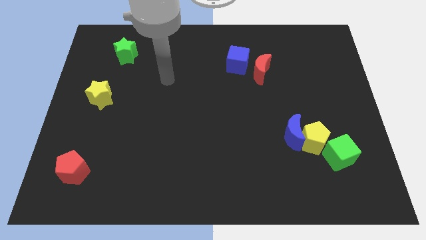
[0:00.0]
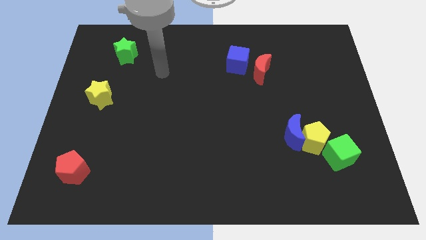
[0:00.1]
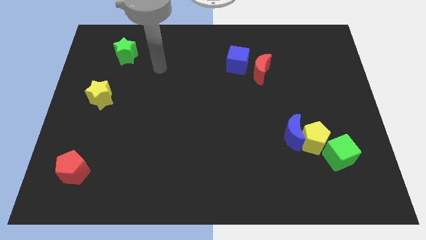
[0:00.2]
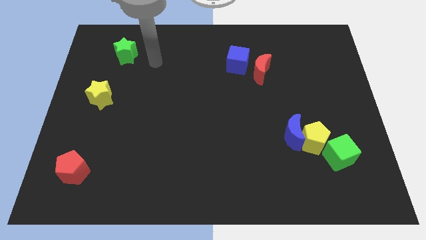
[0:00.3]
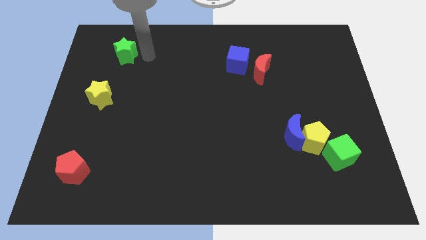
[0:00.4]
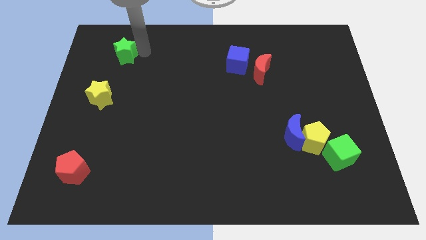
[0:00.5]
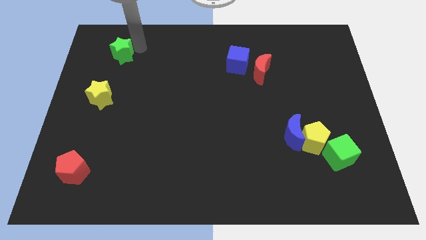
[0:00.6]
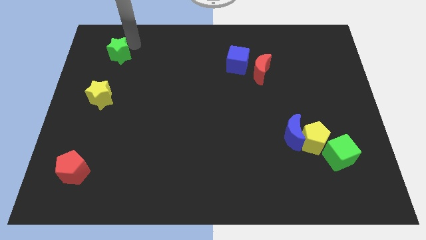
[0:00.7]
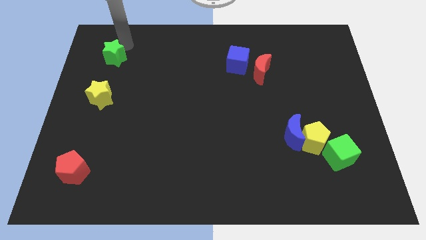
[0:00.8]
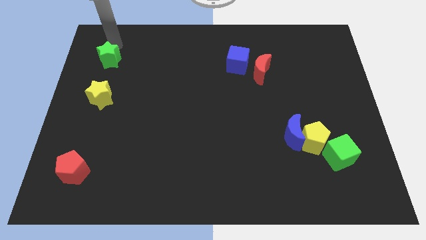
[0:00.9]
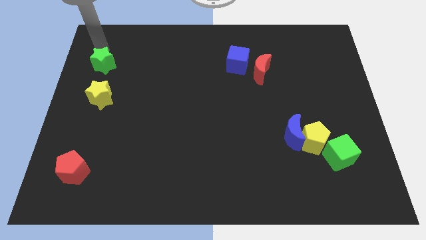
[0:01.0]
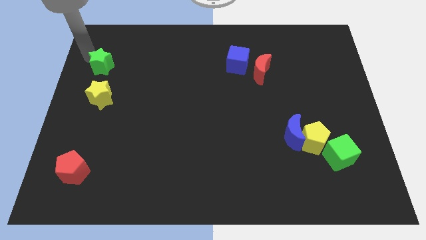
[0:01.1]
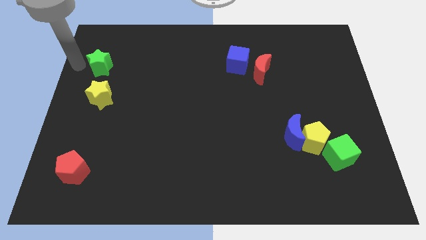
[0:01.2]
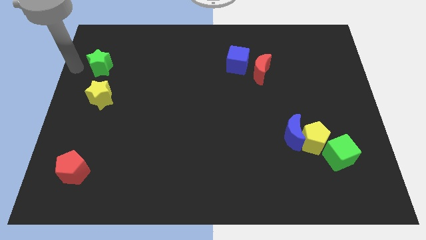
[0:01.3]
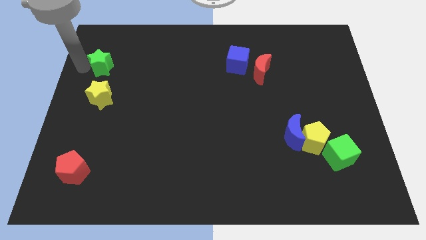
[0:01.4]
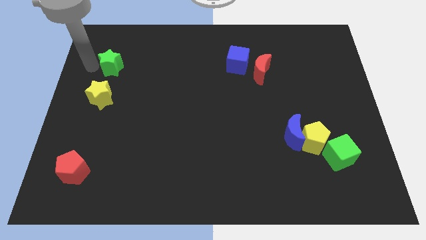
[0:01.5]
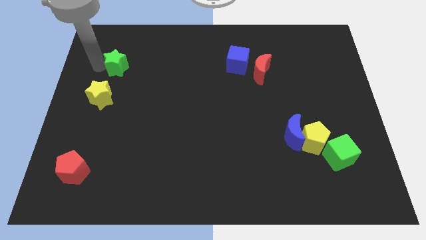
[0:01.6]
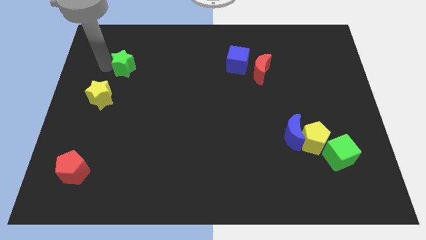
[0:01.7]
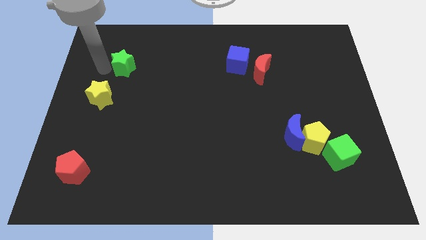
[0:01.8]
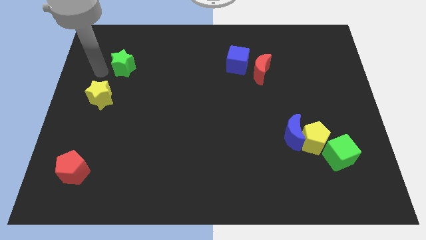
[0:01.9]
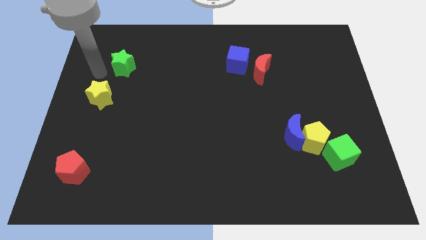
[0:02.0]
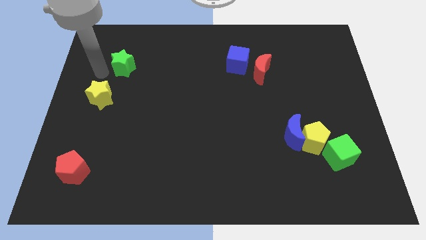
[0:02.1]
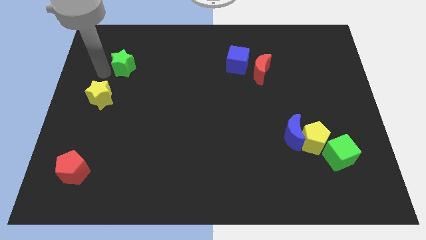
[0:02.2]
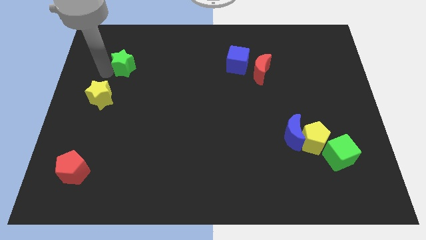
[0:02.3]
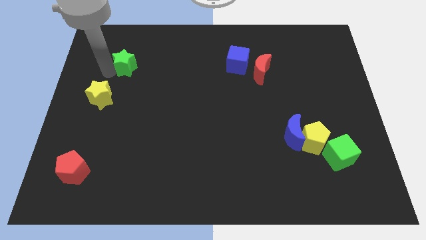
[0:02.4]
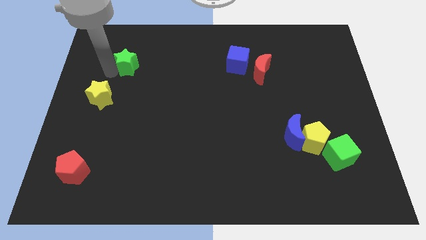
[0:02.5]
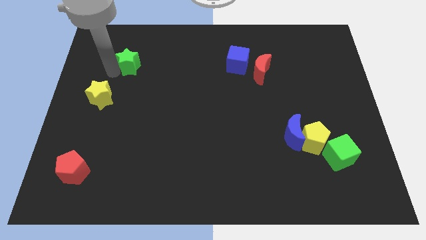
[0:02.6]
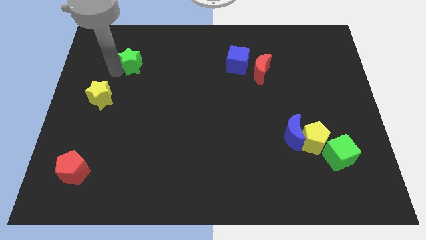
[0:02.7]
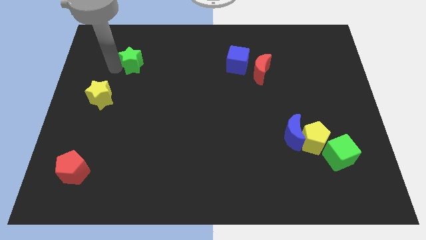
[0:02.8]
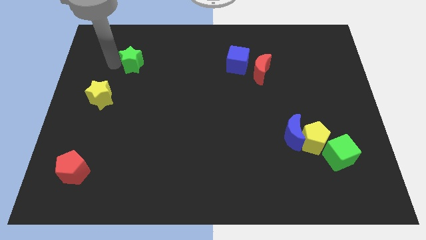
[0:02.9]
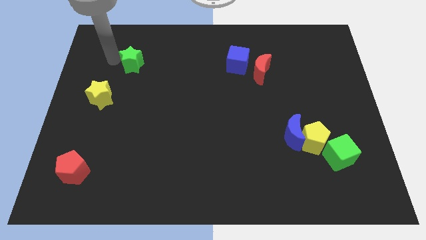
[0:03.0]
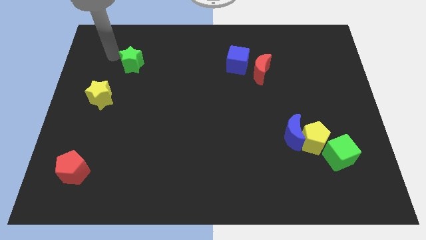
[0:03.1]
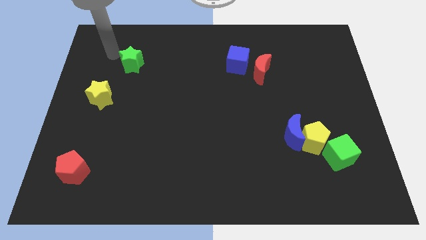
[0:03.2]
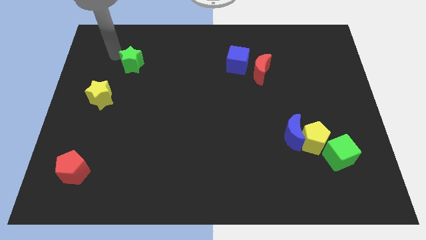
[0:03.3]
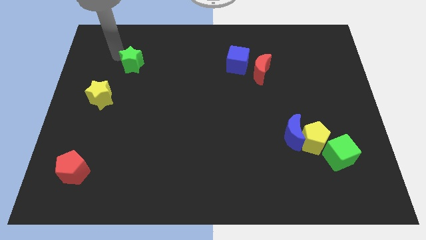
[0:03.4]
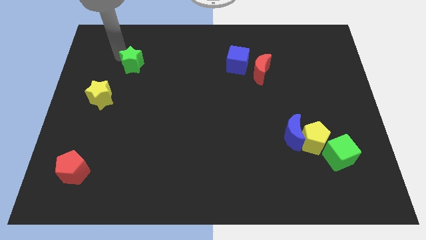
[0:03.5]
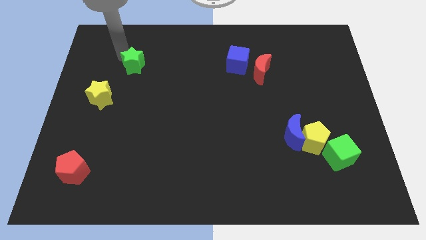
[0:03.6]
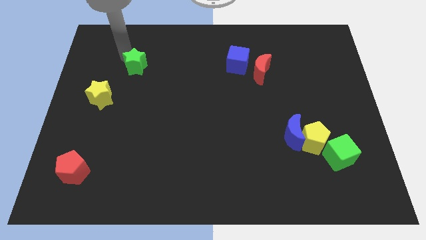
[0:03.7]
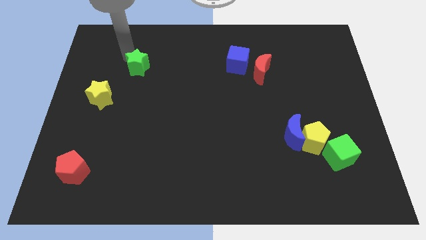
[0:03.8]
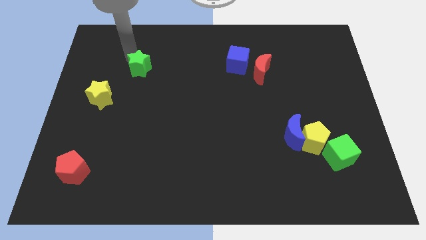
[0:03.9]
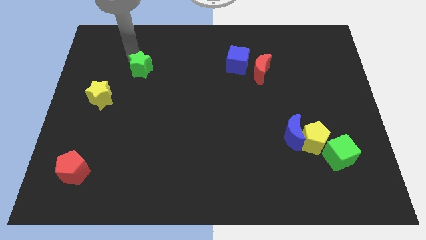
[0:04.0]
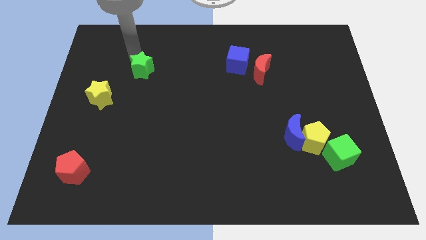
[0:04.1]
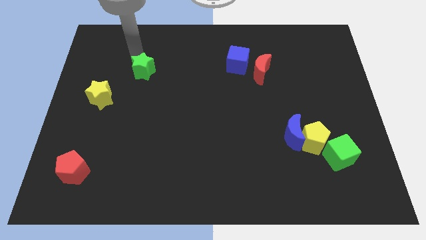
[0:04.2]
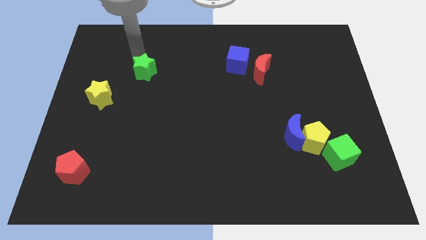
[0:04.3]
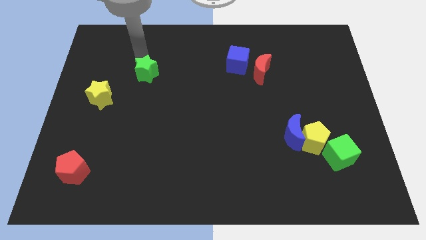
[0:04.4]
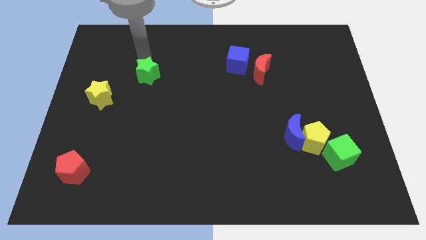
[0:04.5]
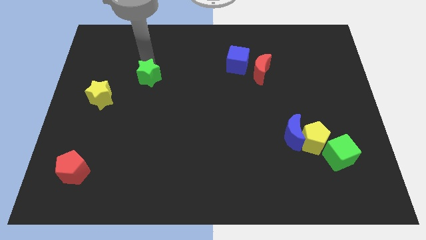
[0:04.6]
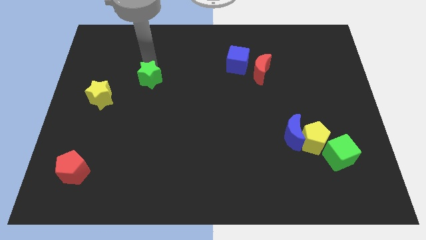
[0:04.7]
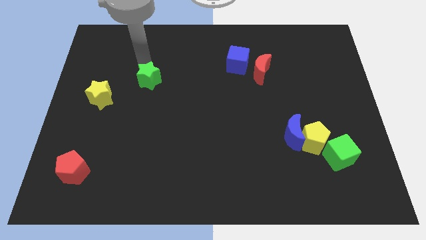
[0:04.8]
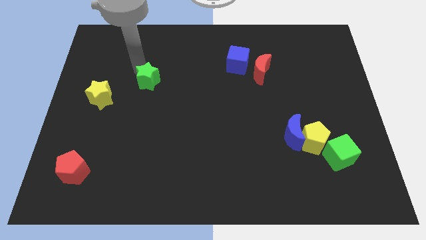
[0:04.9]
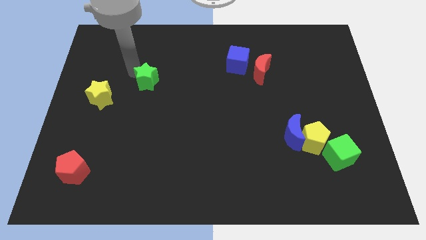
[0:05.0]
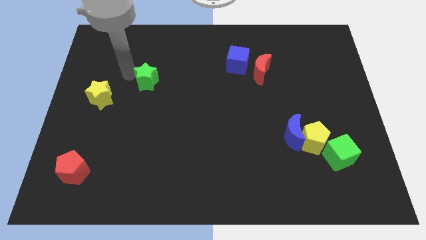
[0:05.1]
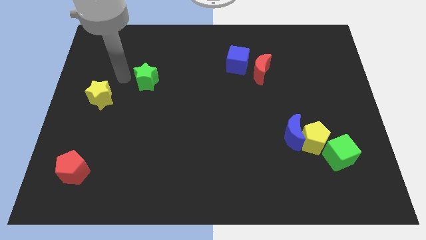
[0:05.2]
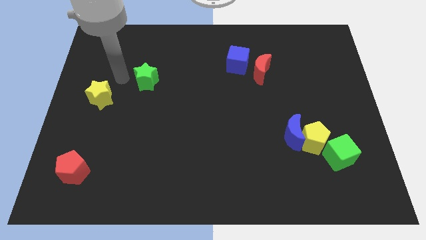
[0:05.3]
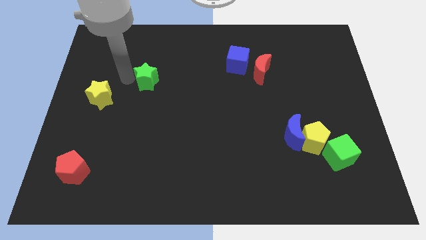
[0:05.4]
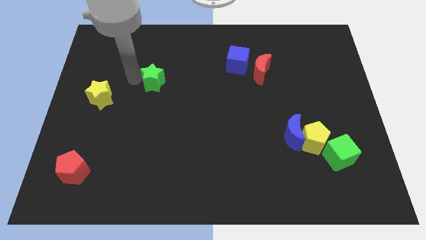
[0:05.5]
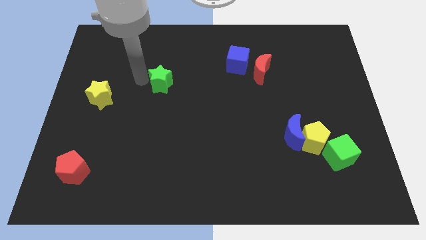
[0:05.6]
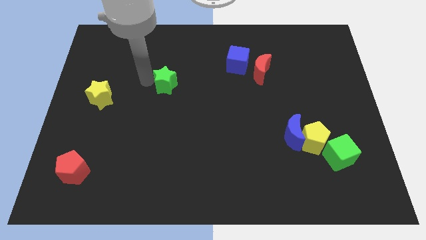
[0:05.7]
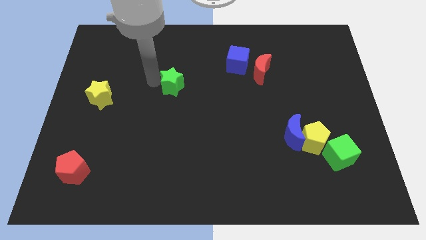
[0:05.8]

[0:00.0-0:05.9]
push the green star to the middle

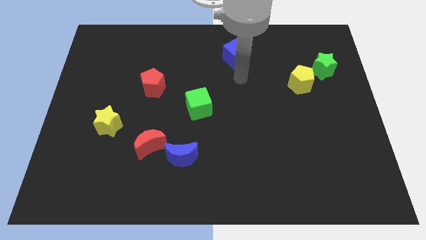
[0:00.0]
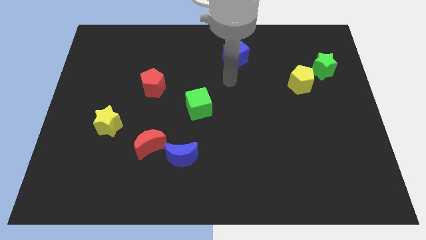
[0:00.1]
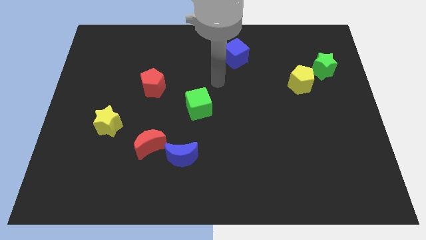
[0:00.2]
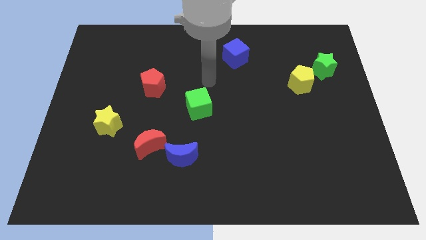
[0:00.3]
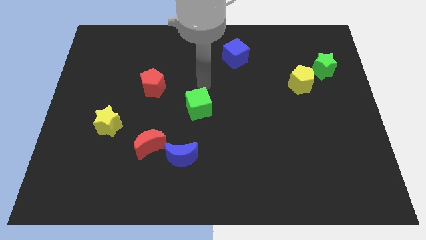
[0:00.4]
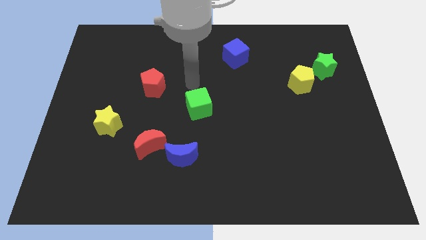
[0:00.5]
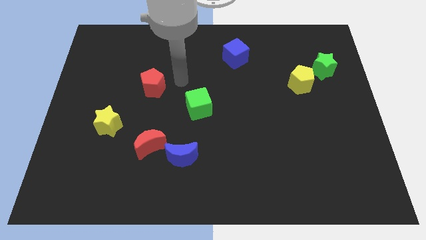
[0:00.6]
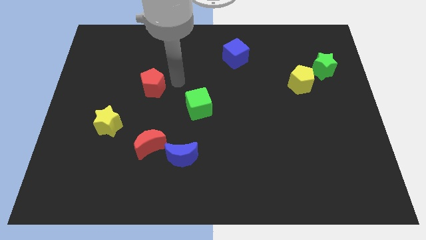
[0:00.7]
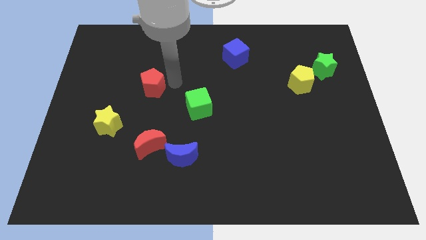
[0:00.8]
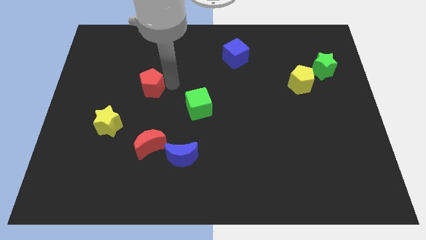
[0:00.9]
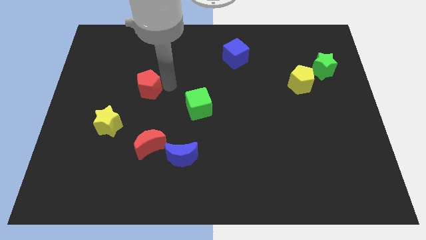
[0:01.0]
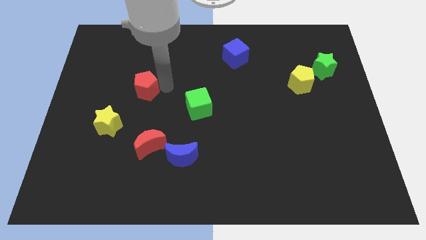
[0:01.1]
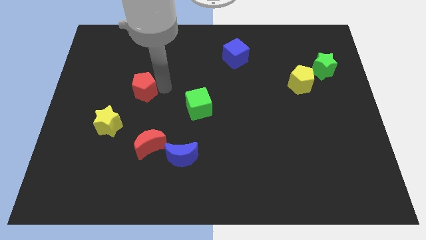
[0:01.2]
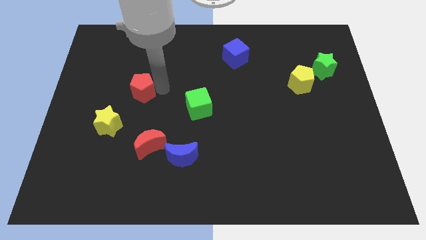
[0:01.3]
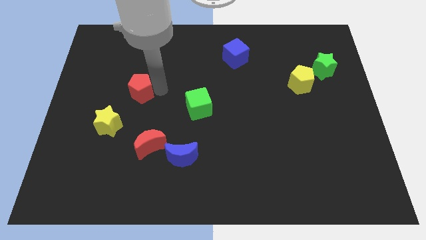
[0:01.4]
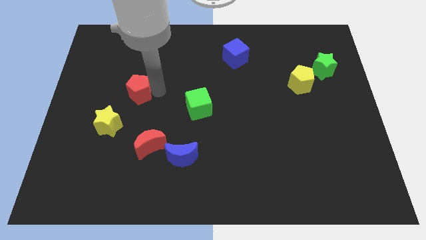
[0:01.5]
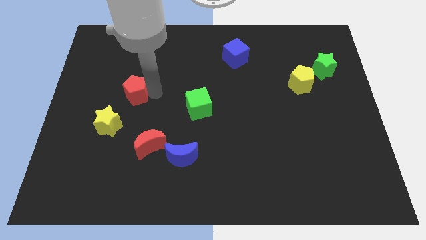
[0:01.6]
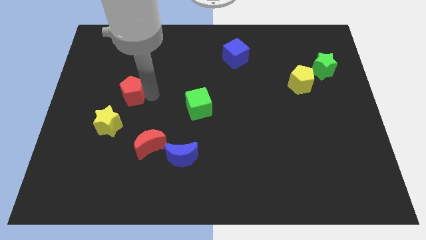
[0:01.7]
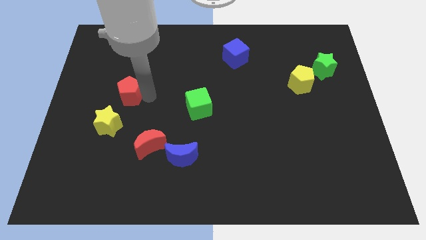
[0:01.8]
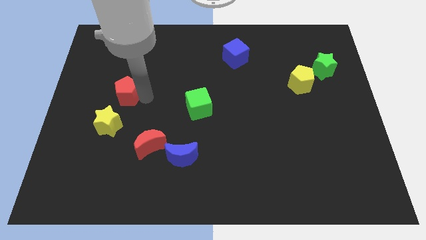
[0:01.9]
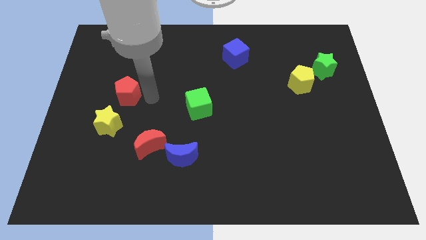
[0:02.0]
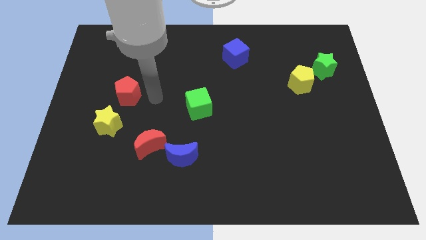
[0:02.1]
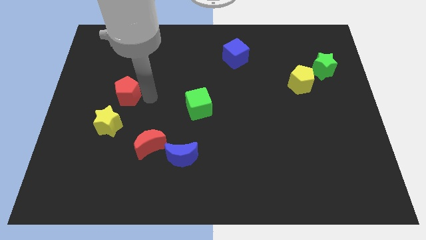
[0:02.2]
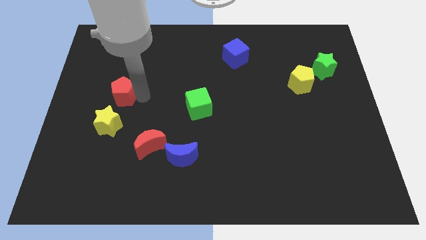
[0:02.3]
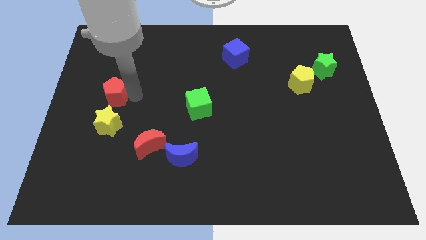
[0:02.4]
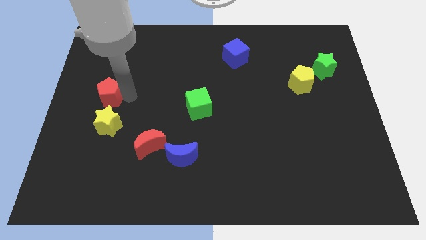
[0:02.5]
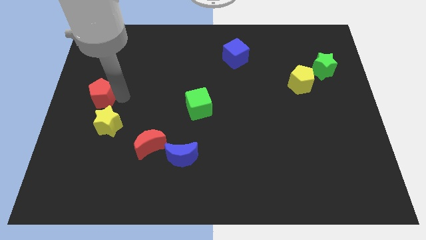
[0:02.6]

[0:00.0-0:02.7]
push the red pentagon to the center left
